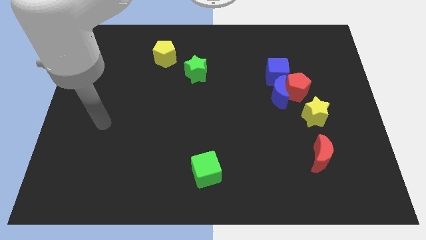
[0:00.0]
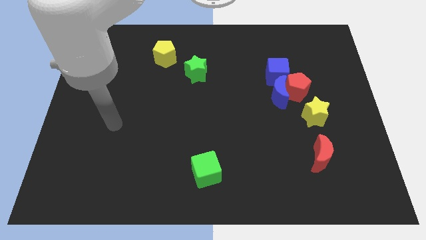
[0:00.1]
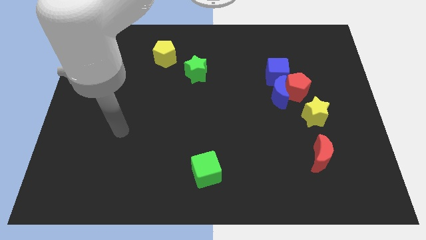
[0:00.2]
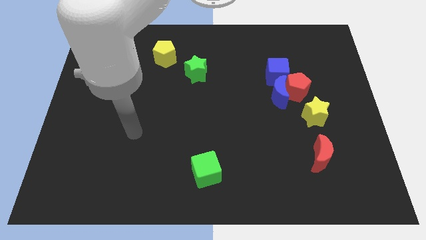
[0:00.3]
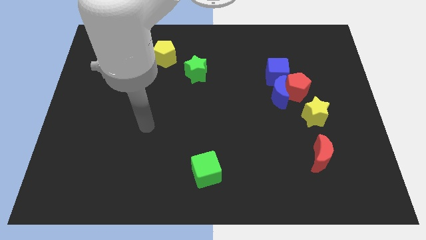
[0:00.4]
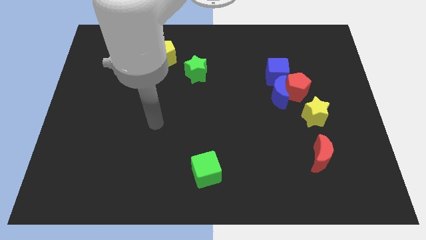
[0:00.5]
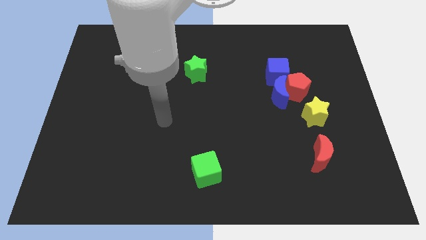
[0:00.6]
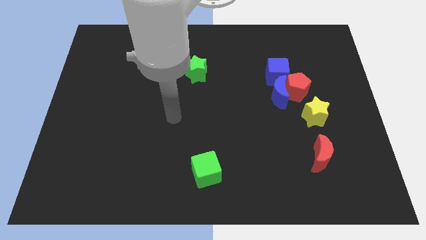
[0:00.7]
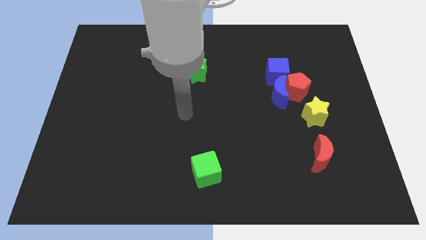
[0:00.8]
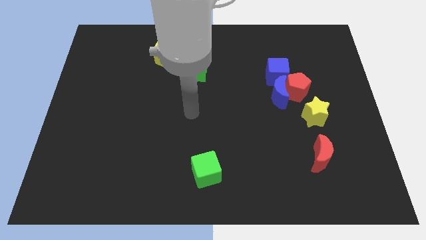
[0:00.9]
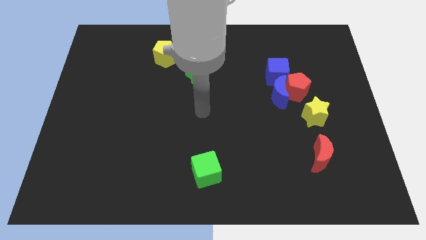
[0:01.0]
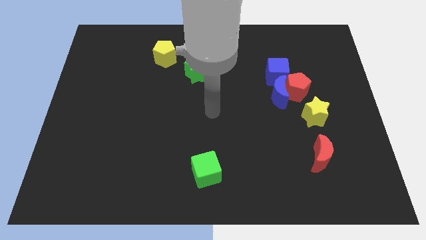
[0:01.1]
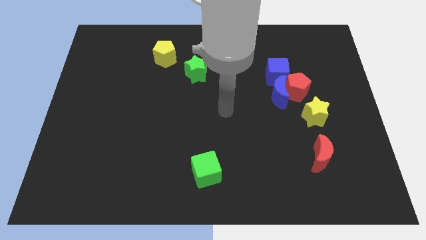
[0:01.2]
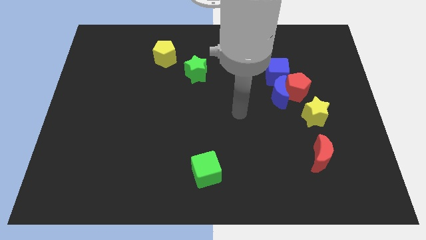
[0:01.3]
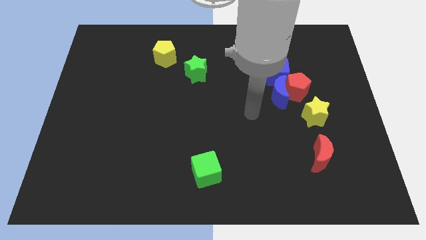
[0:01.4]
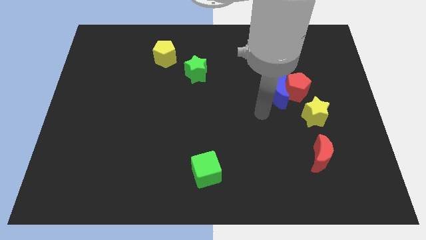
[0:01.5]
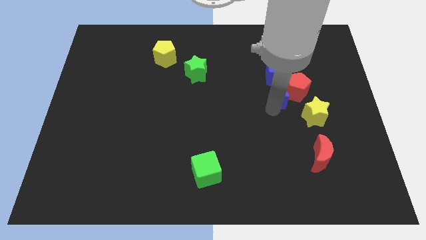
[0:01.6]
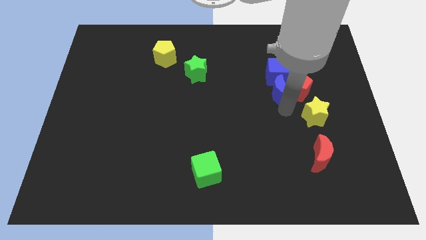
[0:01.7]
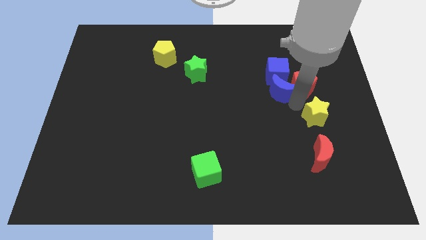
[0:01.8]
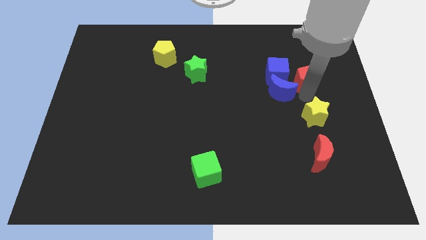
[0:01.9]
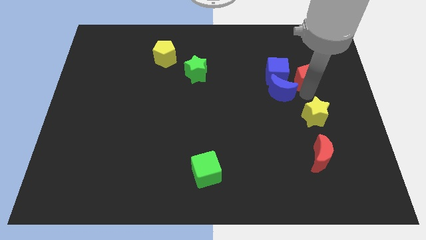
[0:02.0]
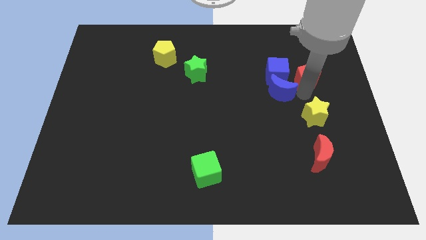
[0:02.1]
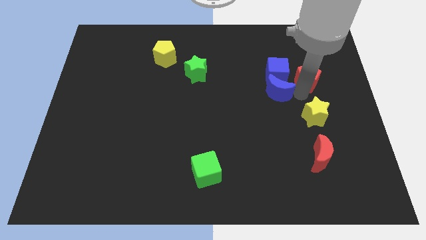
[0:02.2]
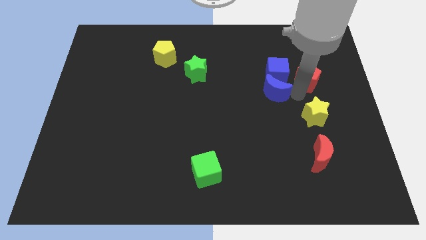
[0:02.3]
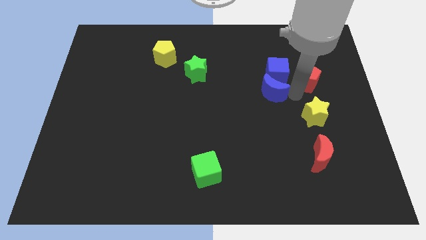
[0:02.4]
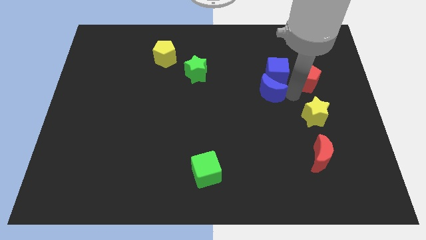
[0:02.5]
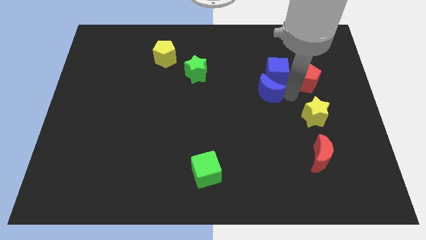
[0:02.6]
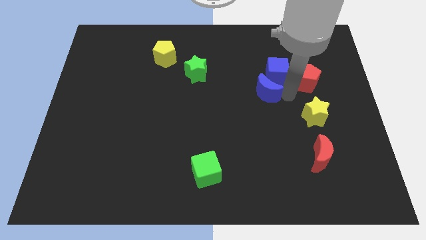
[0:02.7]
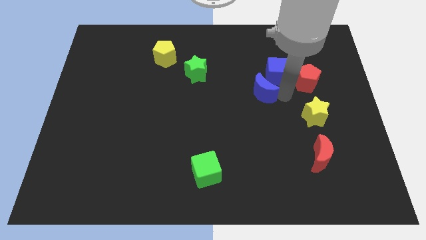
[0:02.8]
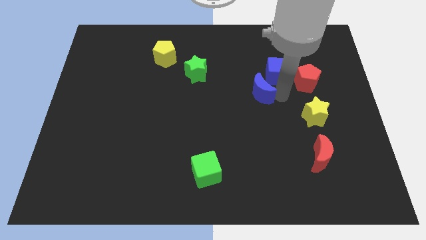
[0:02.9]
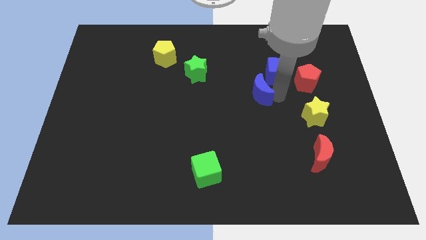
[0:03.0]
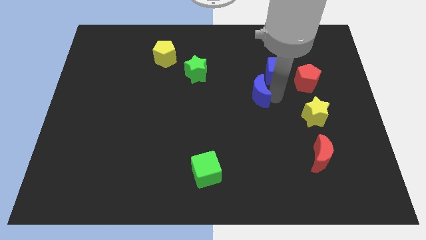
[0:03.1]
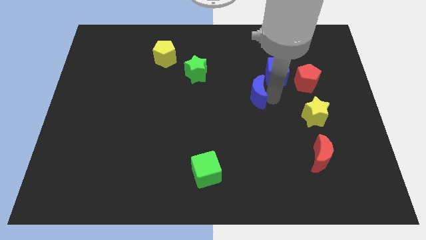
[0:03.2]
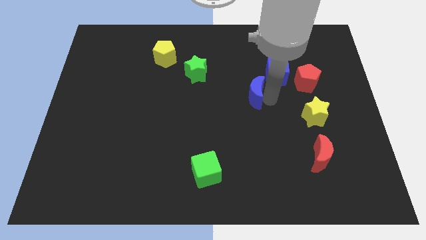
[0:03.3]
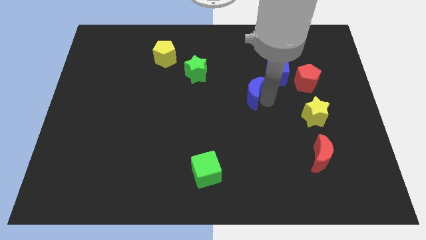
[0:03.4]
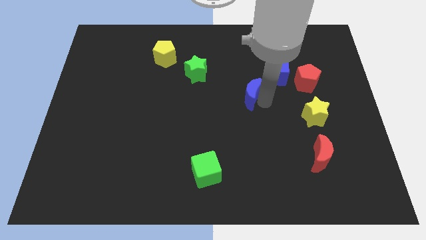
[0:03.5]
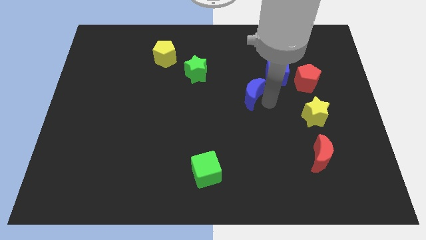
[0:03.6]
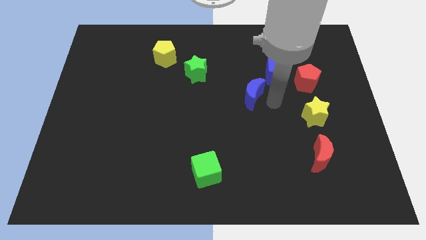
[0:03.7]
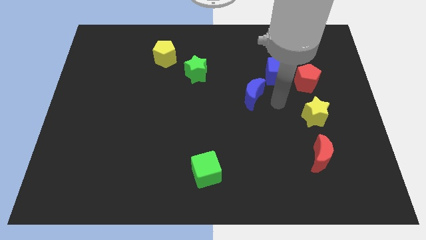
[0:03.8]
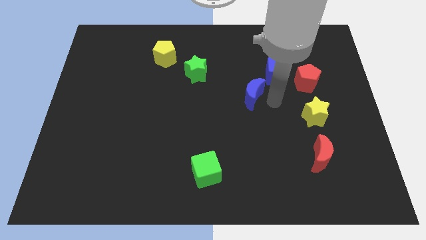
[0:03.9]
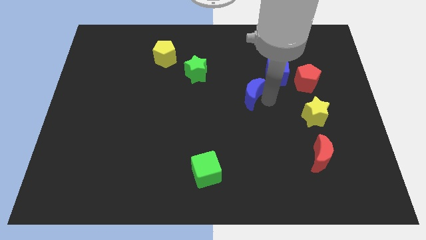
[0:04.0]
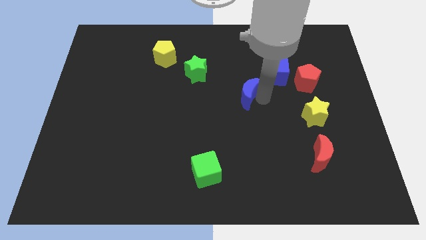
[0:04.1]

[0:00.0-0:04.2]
push the blue moon somewhat to the left

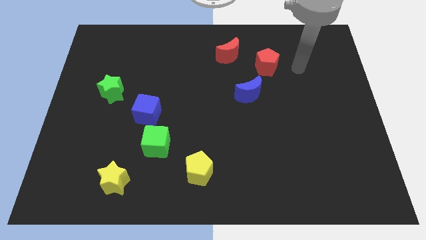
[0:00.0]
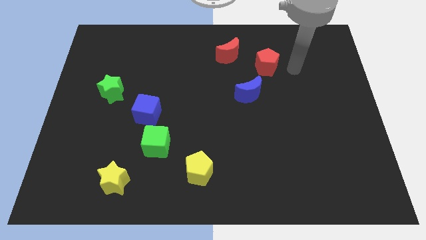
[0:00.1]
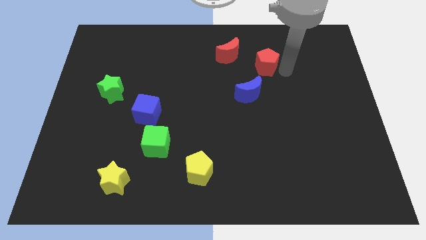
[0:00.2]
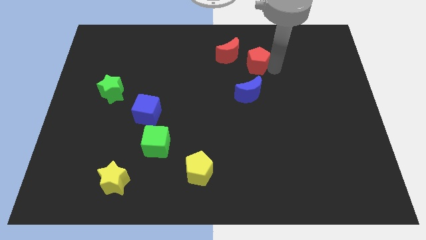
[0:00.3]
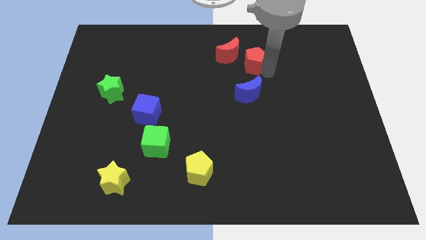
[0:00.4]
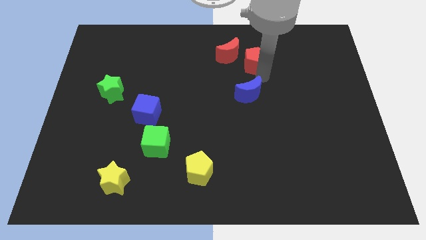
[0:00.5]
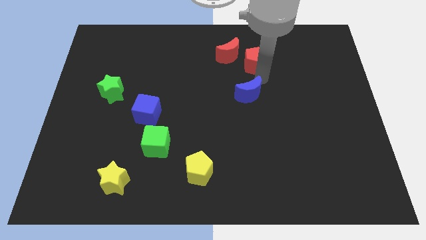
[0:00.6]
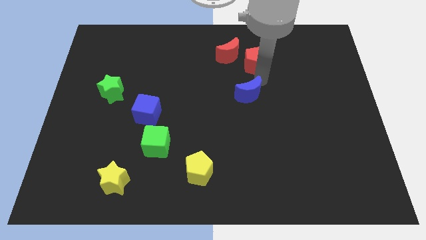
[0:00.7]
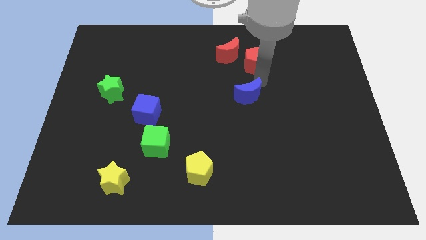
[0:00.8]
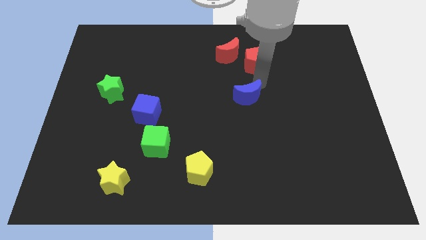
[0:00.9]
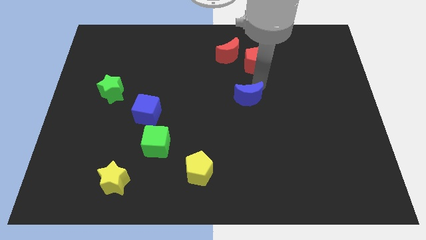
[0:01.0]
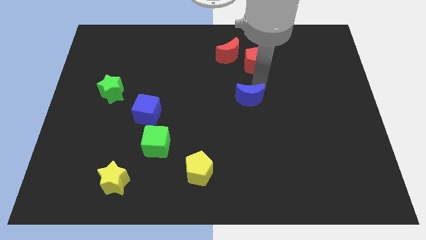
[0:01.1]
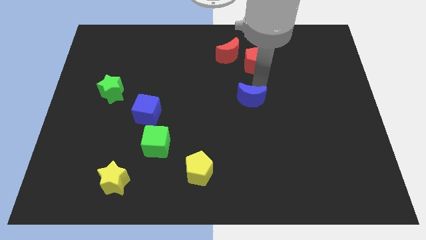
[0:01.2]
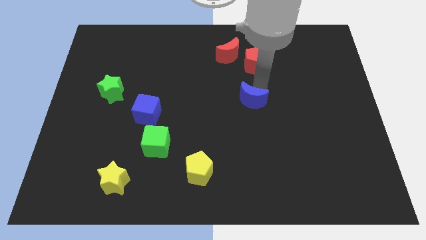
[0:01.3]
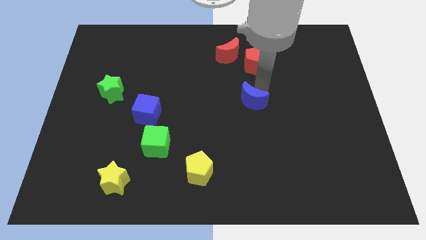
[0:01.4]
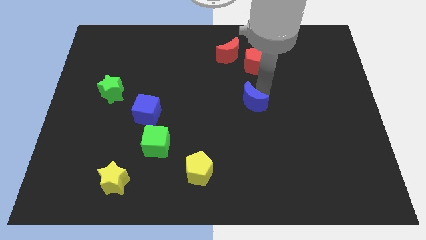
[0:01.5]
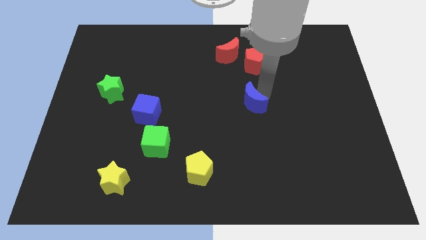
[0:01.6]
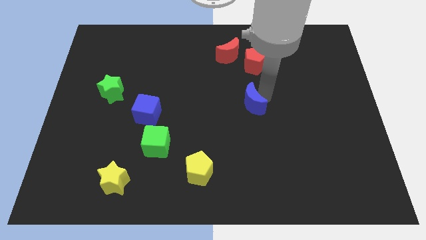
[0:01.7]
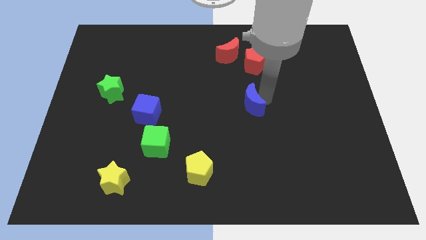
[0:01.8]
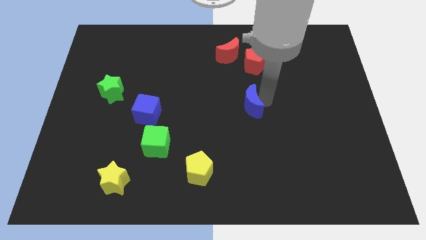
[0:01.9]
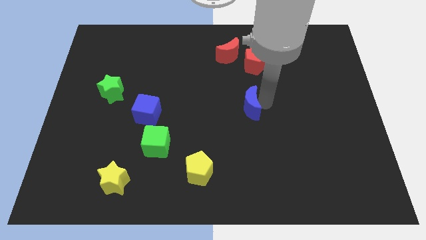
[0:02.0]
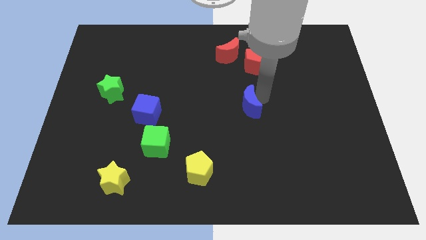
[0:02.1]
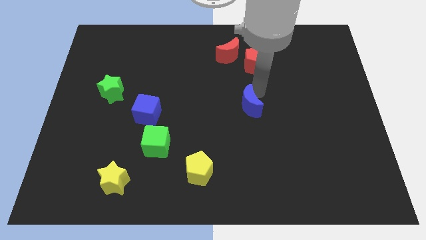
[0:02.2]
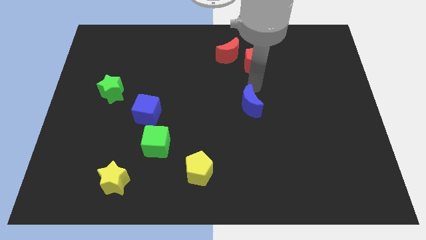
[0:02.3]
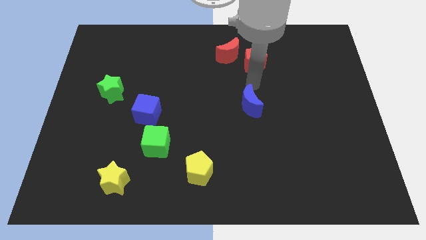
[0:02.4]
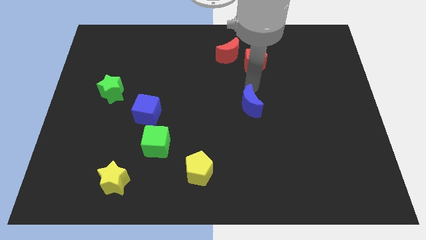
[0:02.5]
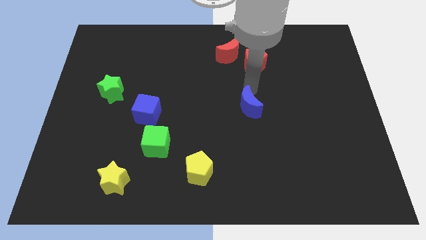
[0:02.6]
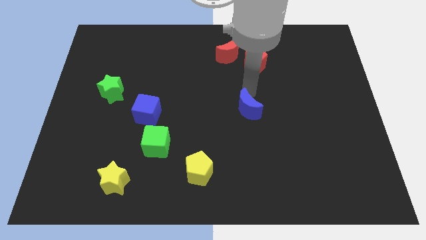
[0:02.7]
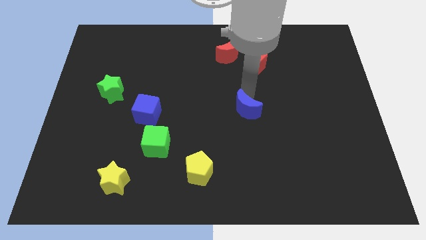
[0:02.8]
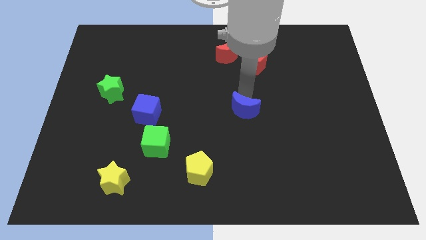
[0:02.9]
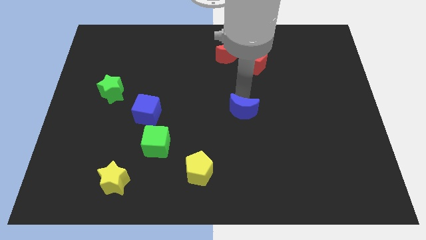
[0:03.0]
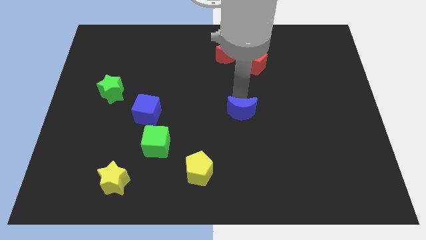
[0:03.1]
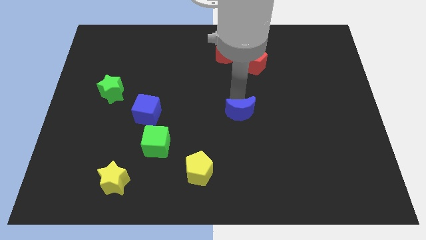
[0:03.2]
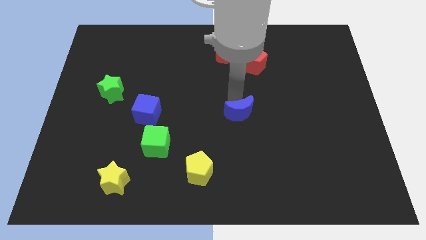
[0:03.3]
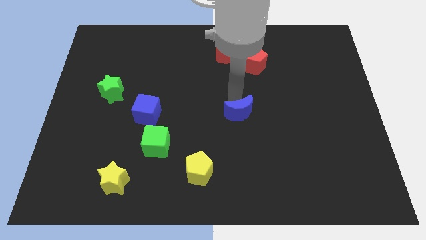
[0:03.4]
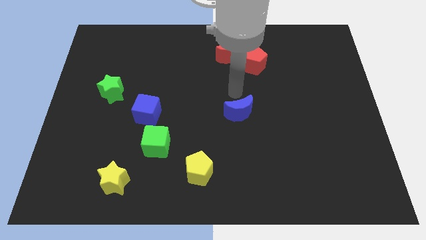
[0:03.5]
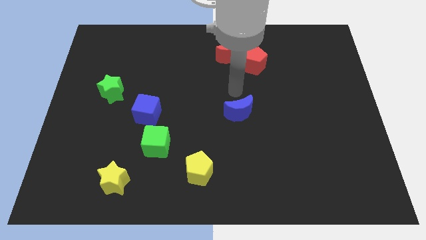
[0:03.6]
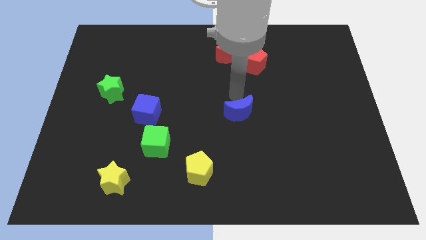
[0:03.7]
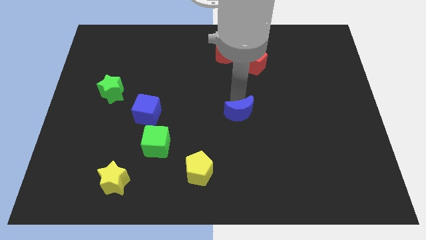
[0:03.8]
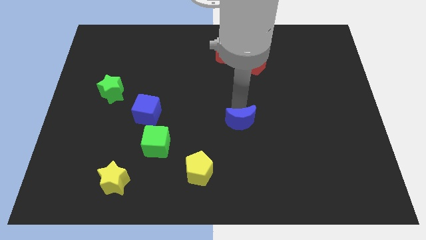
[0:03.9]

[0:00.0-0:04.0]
push the blue moon down somewhat
